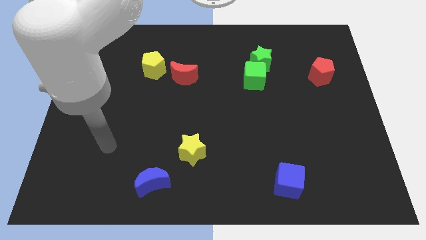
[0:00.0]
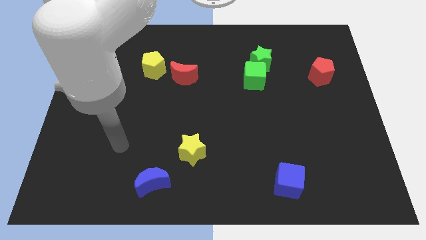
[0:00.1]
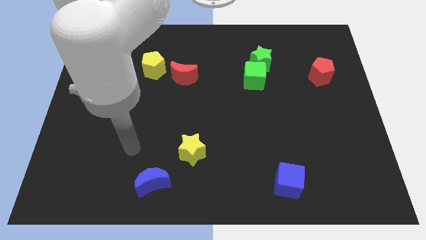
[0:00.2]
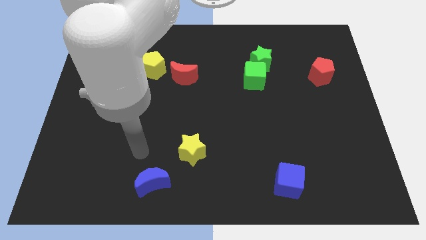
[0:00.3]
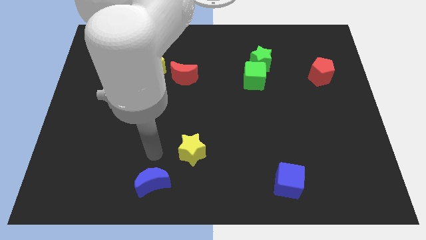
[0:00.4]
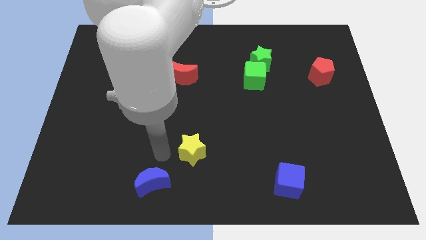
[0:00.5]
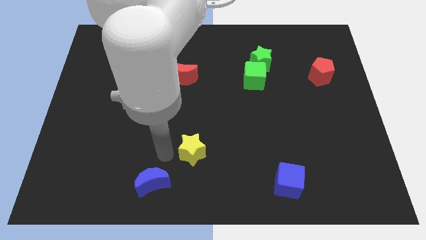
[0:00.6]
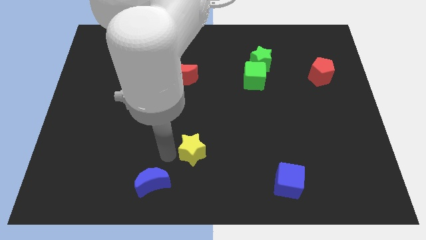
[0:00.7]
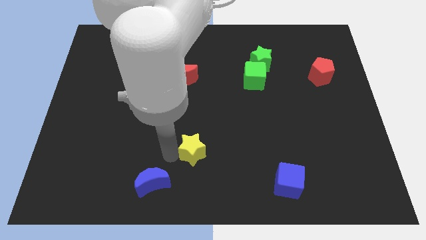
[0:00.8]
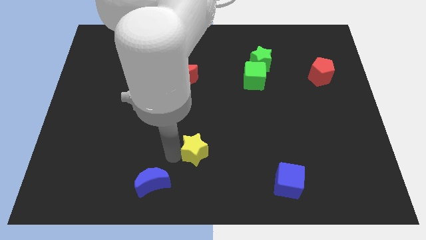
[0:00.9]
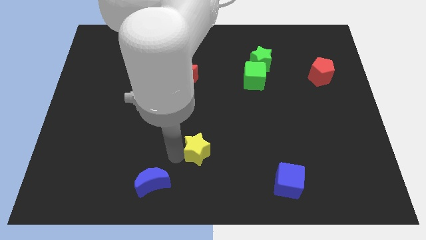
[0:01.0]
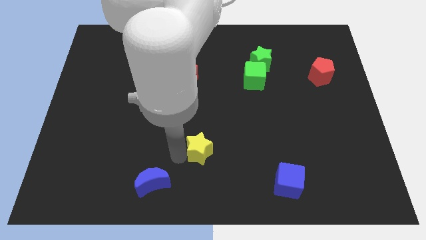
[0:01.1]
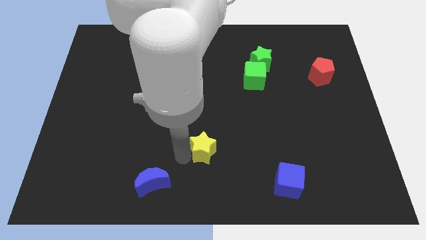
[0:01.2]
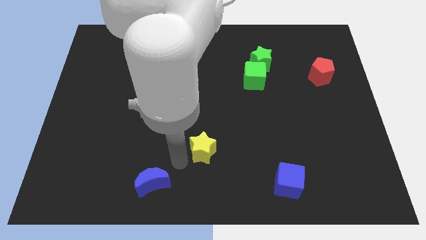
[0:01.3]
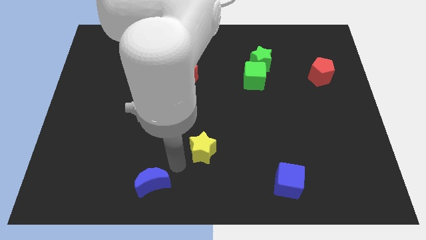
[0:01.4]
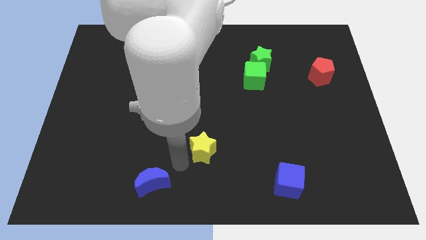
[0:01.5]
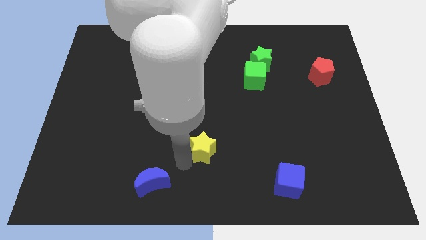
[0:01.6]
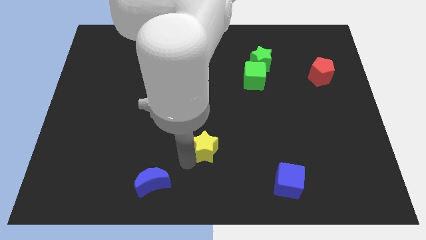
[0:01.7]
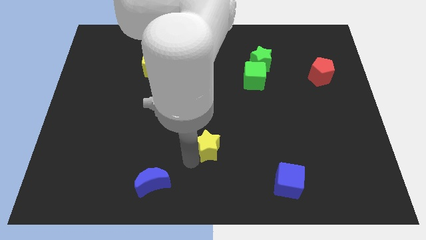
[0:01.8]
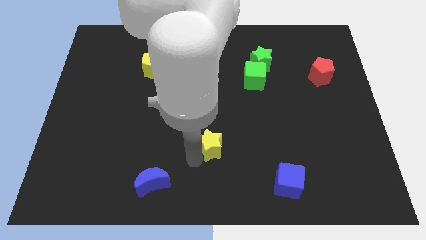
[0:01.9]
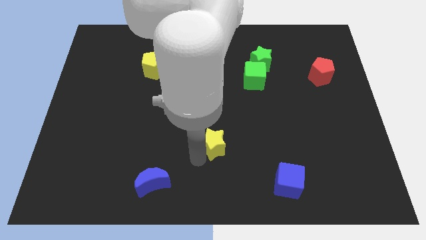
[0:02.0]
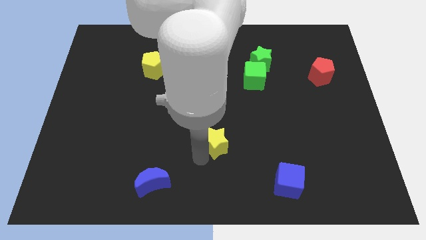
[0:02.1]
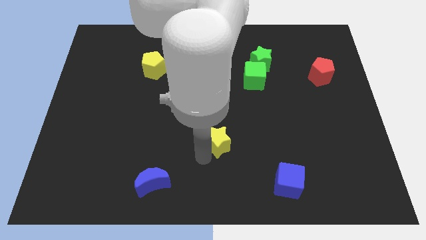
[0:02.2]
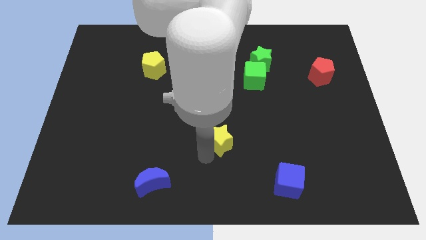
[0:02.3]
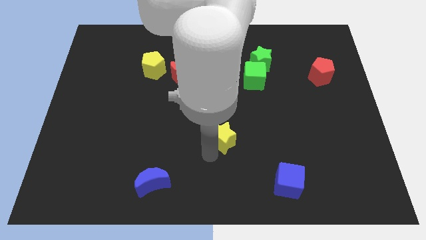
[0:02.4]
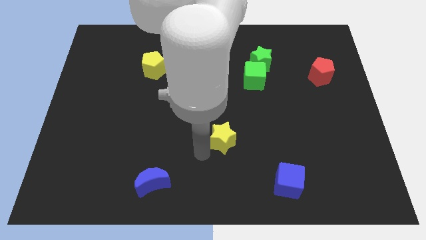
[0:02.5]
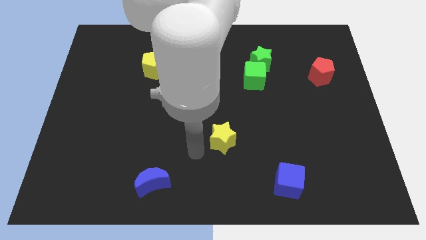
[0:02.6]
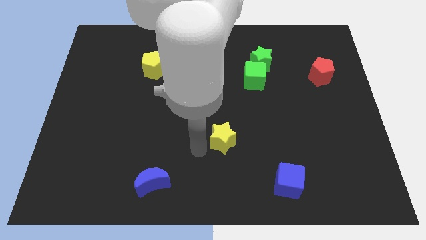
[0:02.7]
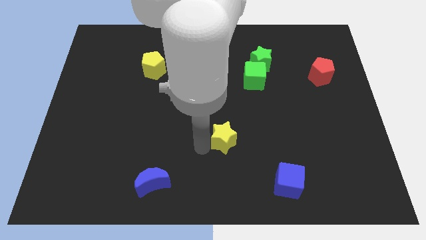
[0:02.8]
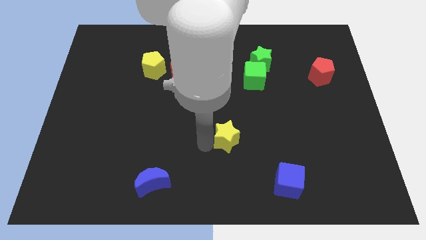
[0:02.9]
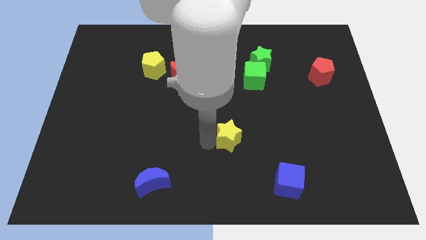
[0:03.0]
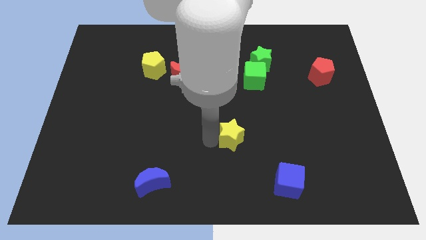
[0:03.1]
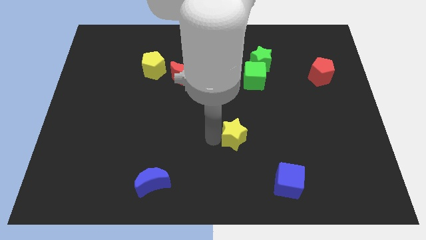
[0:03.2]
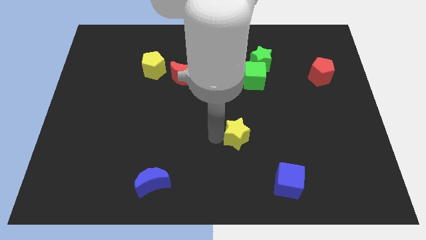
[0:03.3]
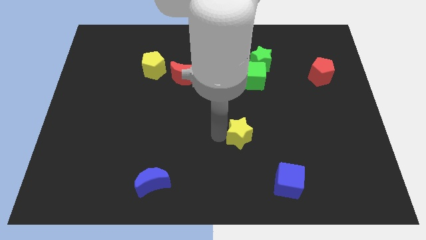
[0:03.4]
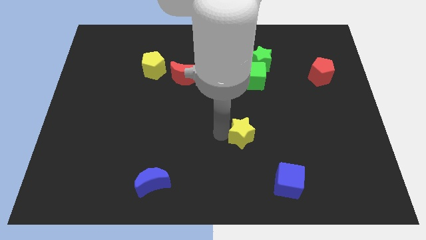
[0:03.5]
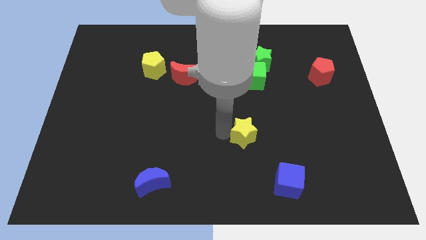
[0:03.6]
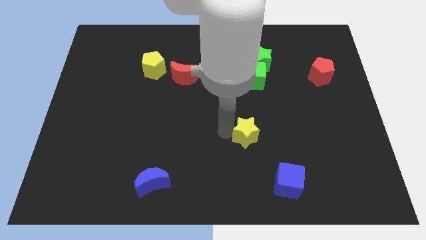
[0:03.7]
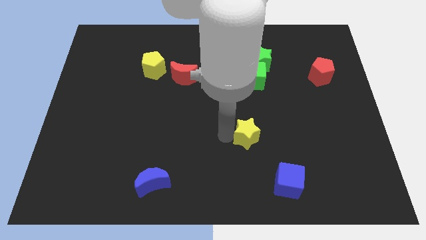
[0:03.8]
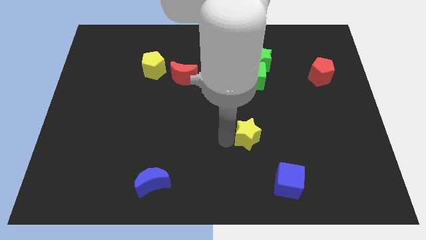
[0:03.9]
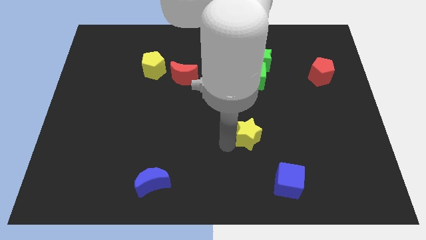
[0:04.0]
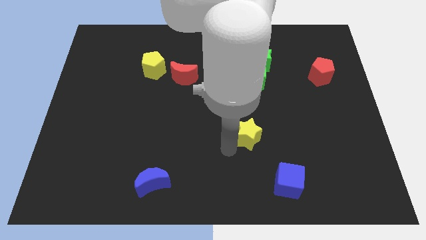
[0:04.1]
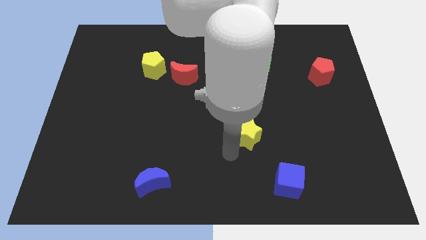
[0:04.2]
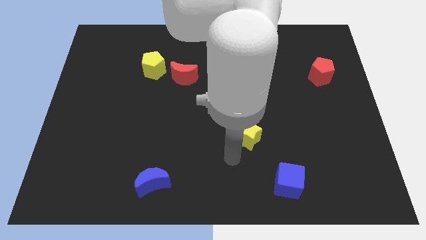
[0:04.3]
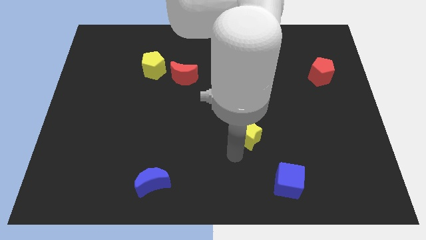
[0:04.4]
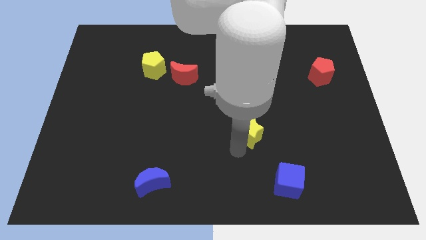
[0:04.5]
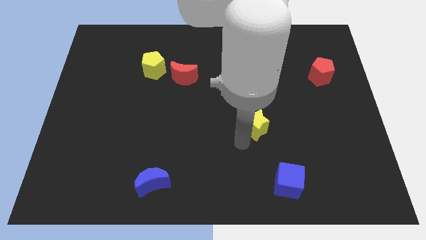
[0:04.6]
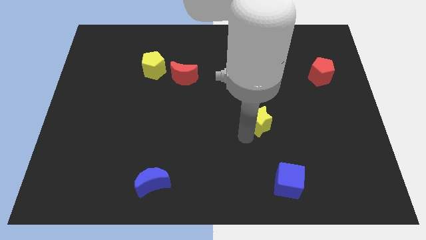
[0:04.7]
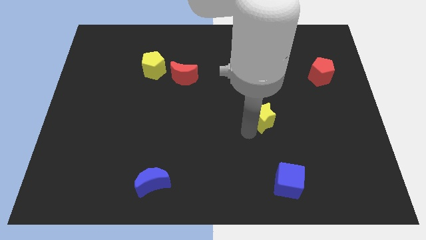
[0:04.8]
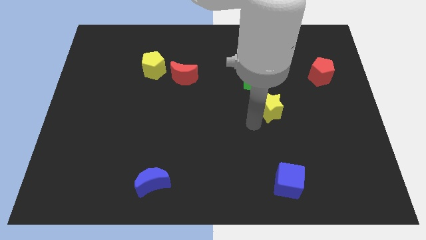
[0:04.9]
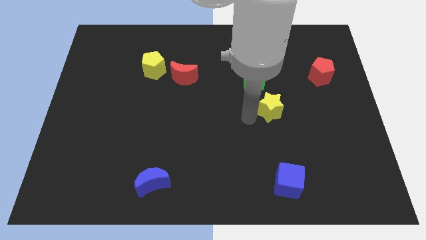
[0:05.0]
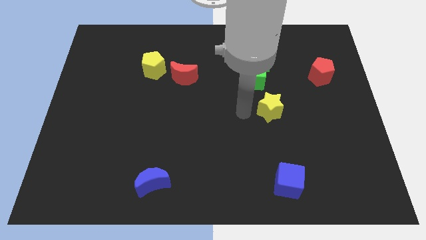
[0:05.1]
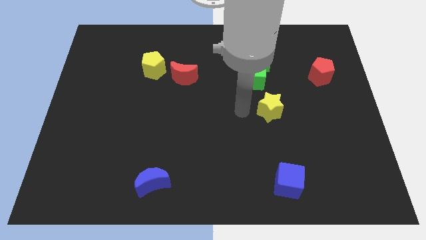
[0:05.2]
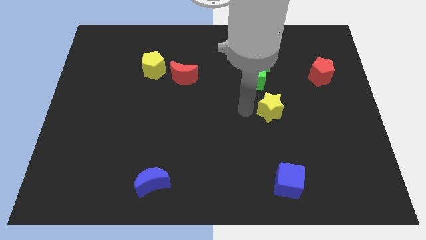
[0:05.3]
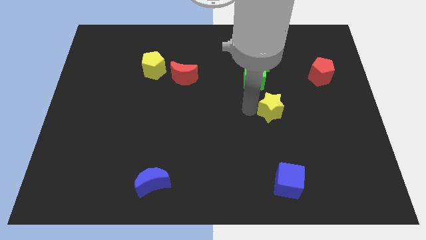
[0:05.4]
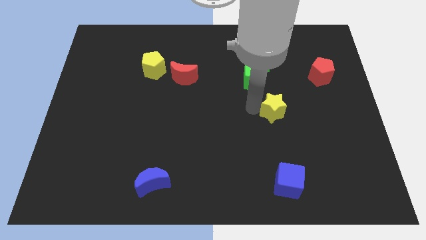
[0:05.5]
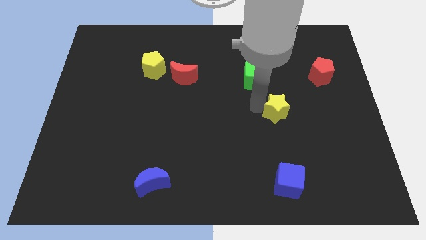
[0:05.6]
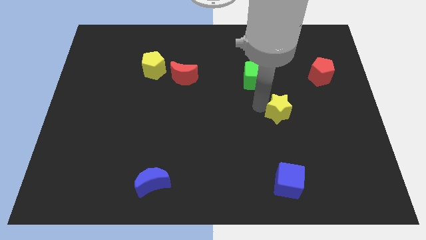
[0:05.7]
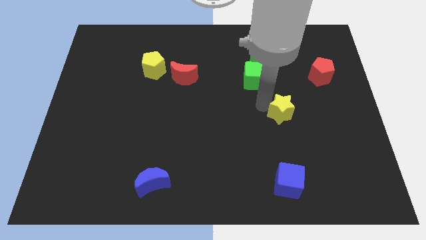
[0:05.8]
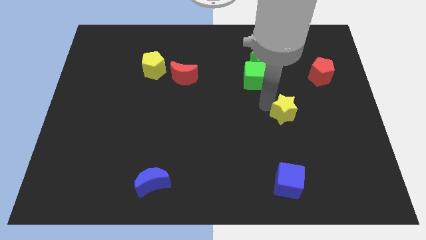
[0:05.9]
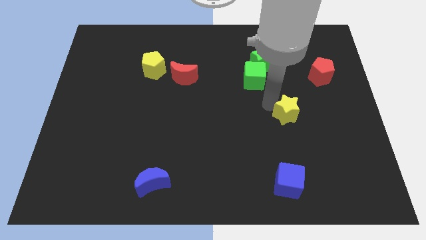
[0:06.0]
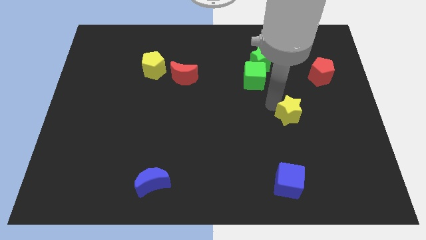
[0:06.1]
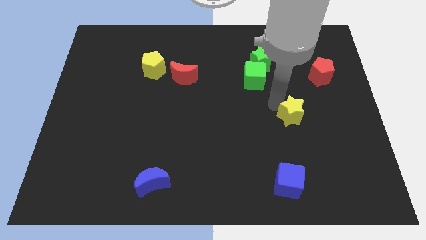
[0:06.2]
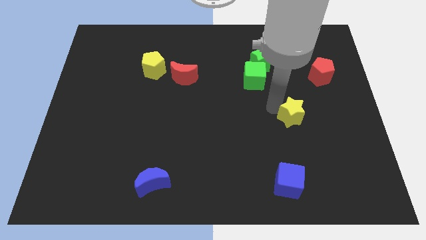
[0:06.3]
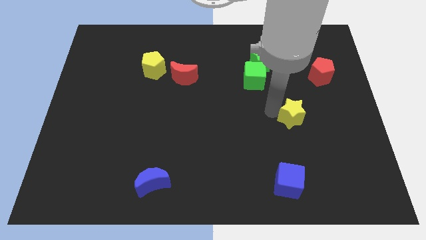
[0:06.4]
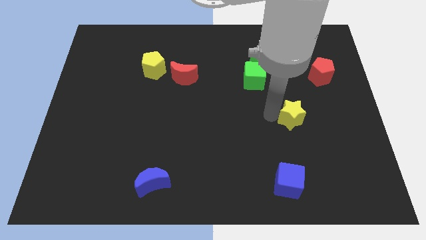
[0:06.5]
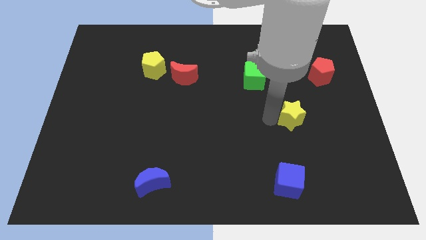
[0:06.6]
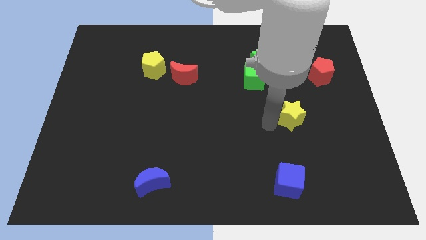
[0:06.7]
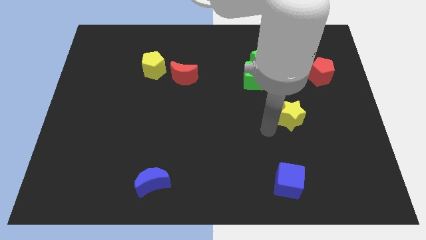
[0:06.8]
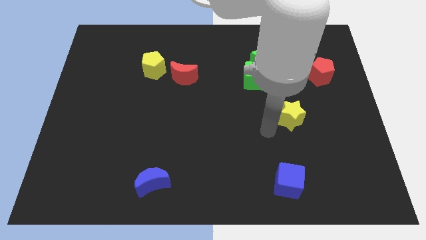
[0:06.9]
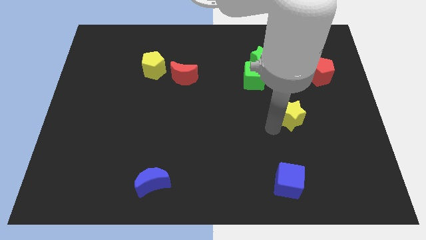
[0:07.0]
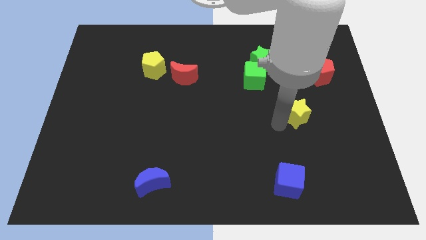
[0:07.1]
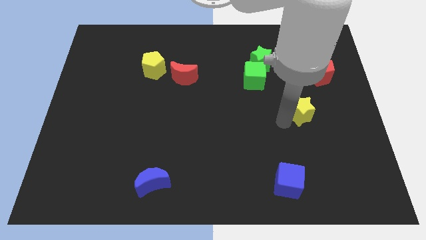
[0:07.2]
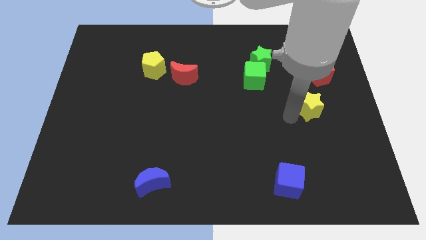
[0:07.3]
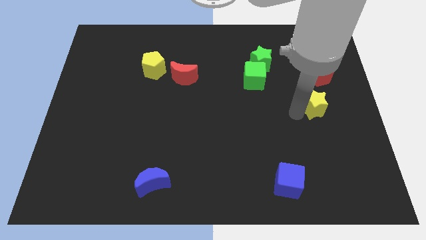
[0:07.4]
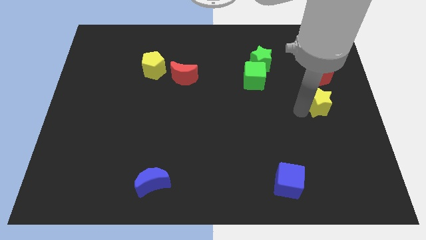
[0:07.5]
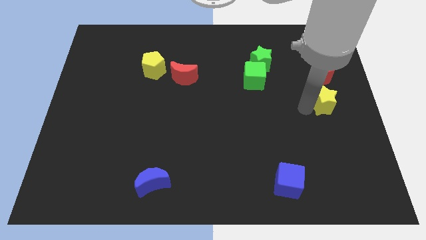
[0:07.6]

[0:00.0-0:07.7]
push the yellow star to the center right
